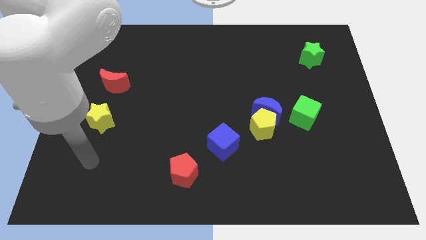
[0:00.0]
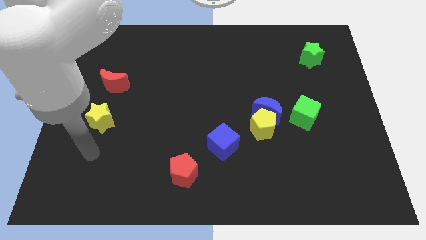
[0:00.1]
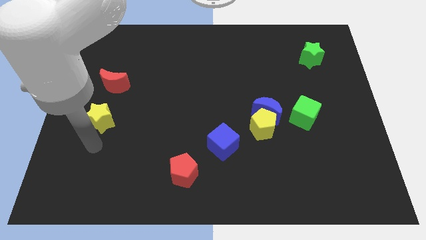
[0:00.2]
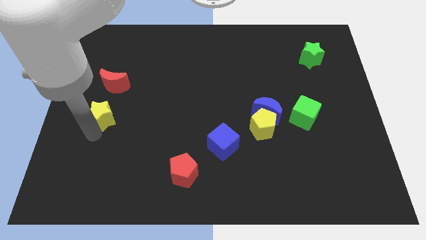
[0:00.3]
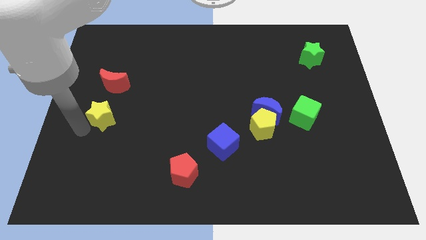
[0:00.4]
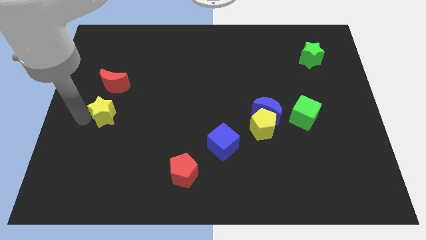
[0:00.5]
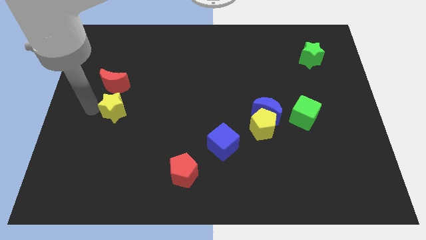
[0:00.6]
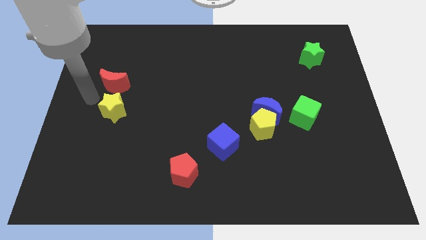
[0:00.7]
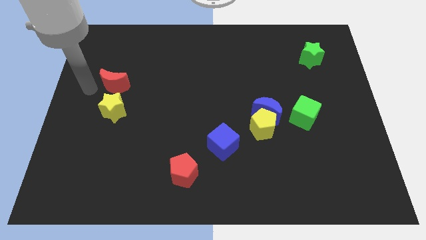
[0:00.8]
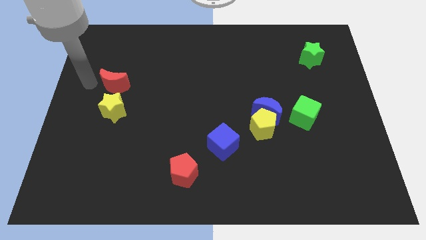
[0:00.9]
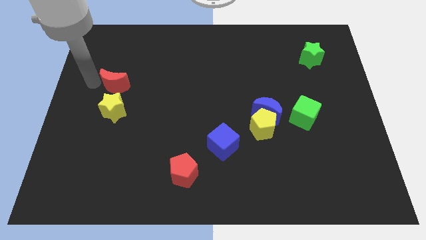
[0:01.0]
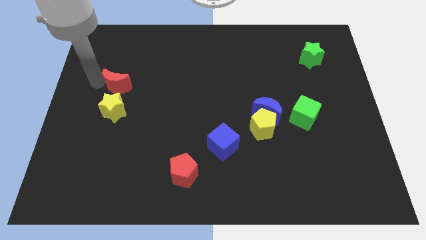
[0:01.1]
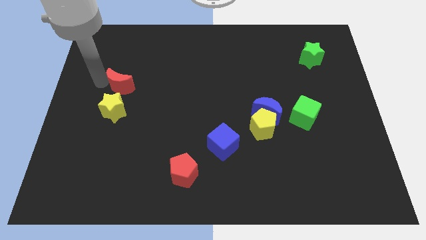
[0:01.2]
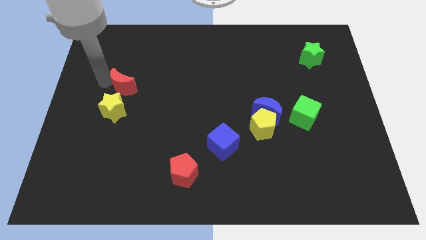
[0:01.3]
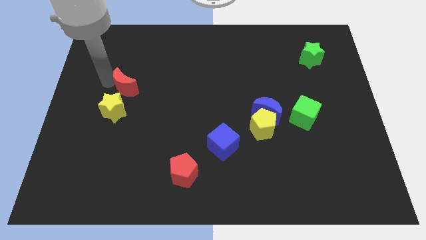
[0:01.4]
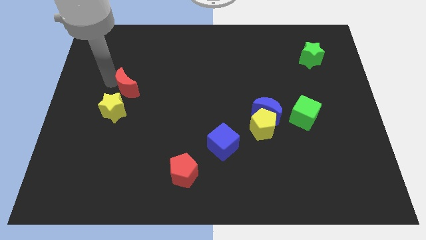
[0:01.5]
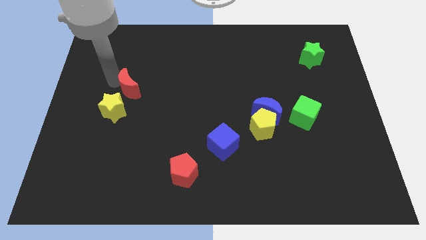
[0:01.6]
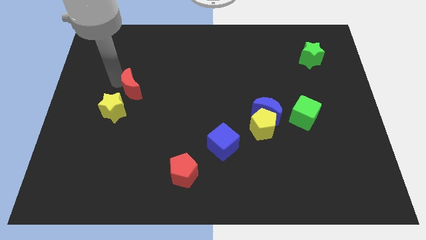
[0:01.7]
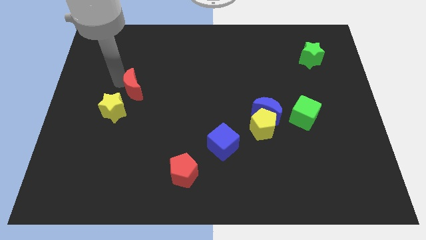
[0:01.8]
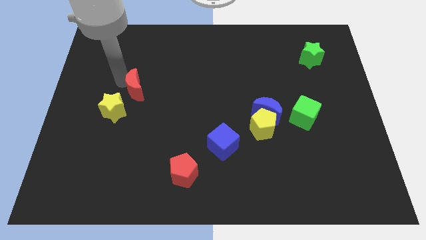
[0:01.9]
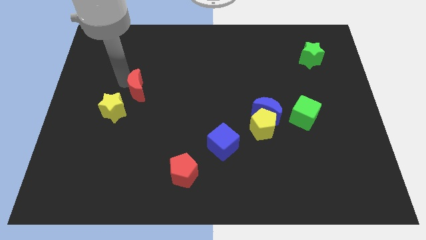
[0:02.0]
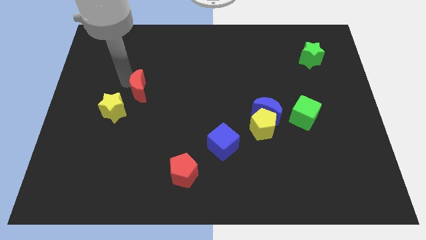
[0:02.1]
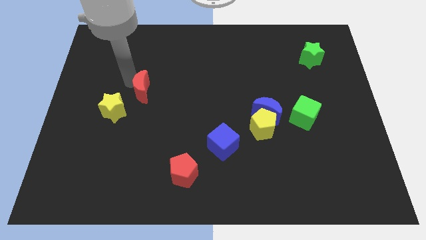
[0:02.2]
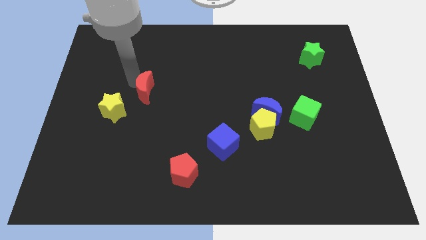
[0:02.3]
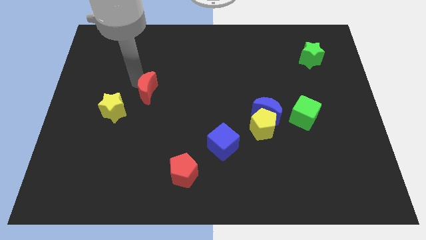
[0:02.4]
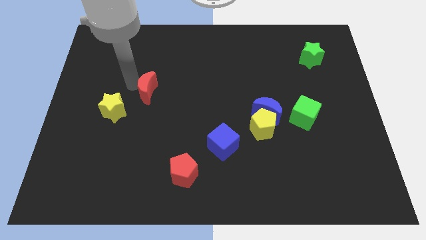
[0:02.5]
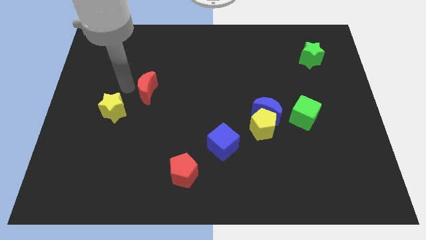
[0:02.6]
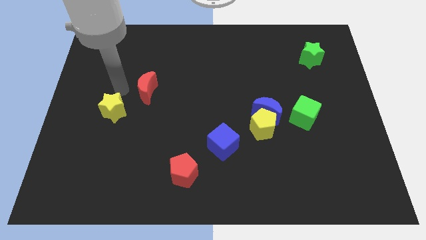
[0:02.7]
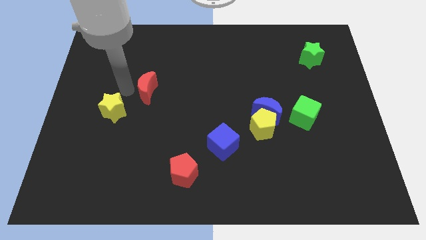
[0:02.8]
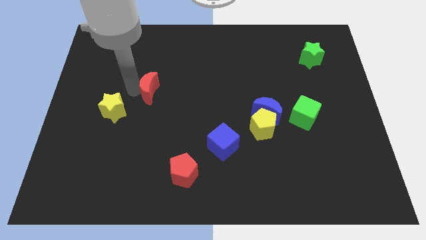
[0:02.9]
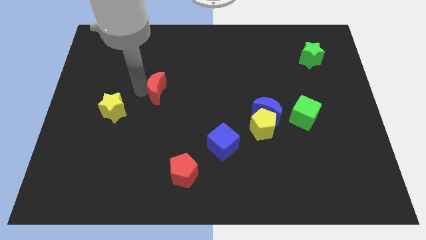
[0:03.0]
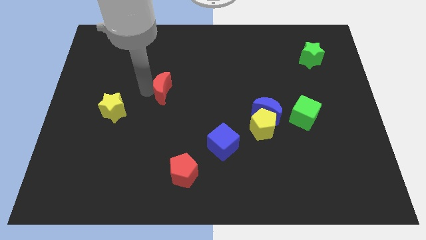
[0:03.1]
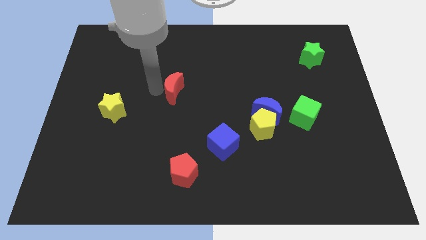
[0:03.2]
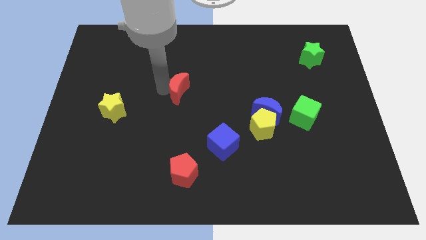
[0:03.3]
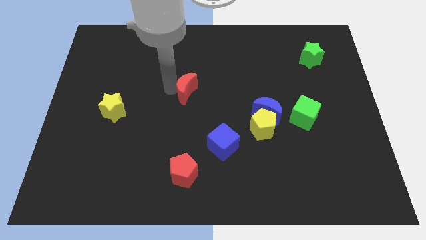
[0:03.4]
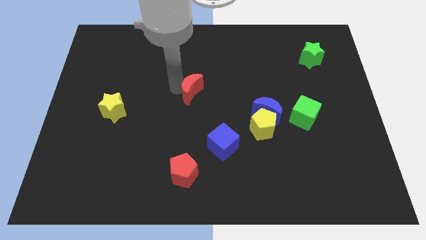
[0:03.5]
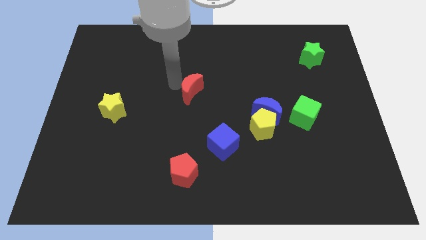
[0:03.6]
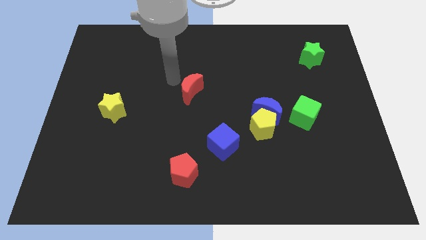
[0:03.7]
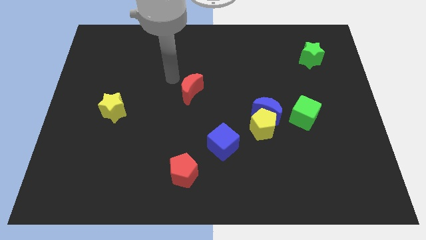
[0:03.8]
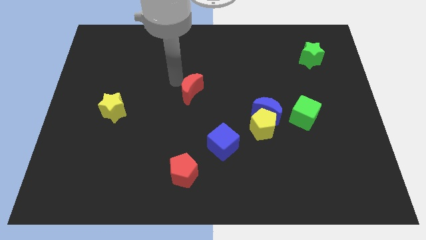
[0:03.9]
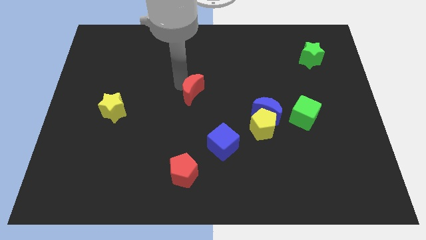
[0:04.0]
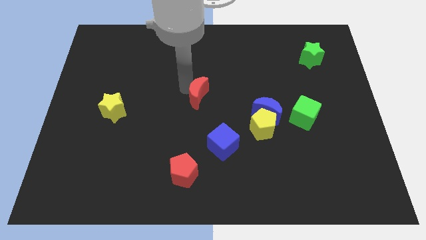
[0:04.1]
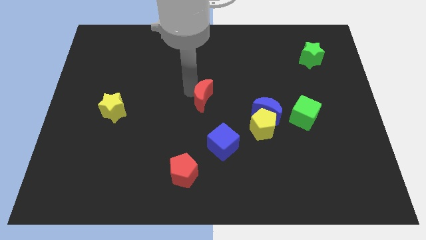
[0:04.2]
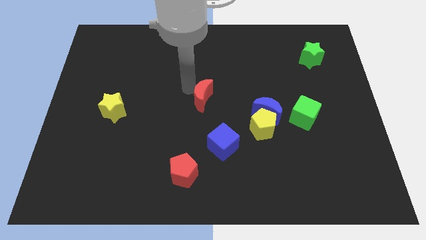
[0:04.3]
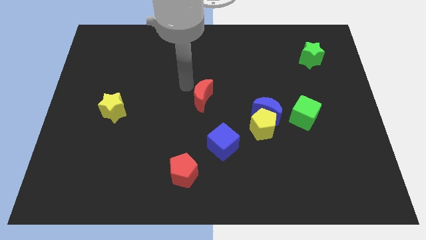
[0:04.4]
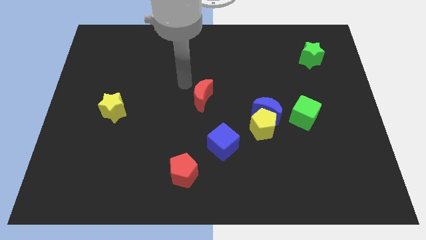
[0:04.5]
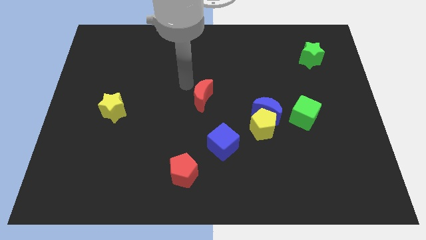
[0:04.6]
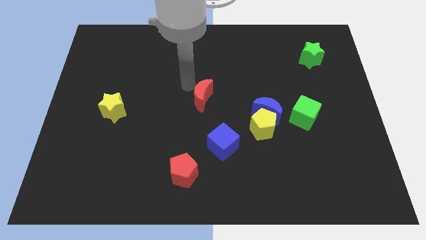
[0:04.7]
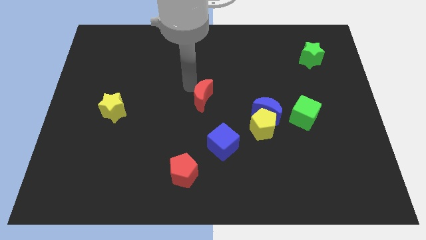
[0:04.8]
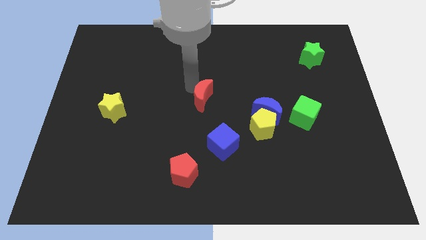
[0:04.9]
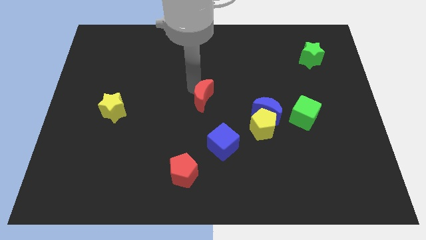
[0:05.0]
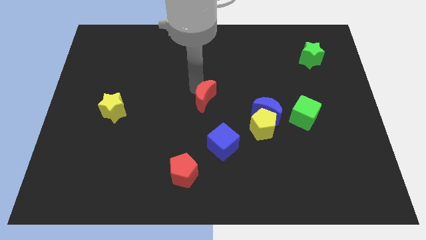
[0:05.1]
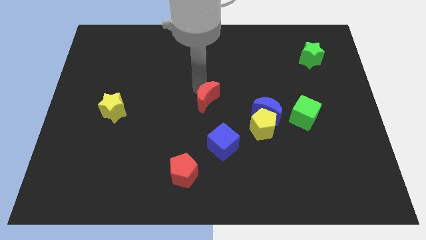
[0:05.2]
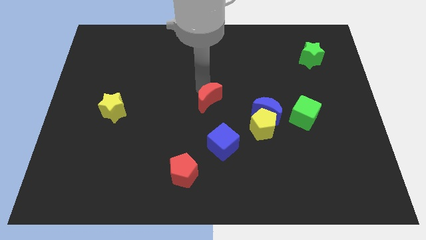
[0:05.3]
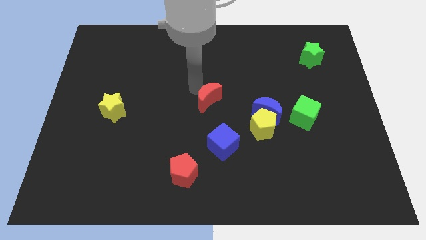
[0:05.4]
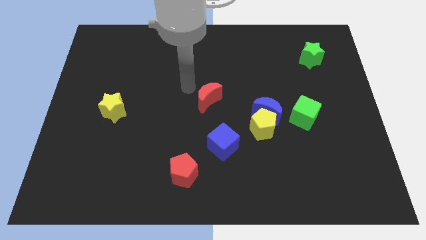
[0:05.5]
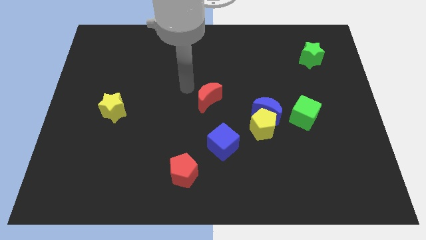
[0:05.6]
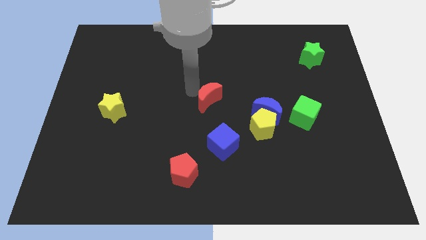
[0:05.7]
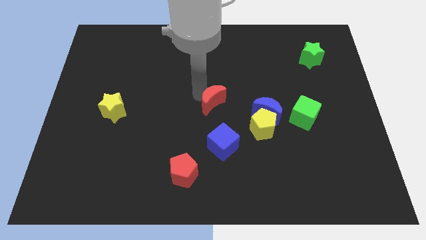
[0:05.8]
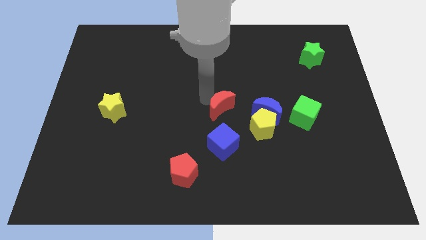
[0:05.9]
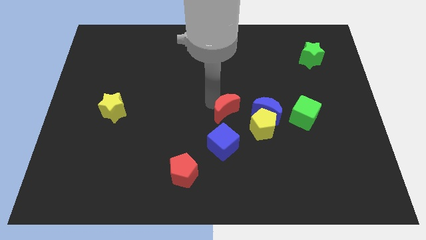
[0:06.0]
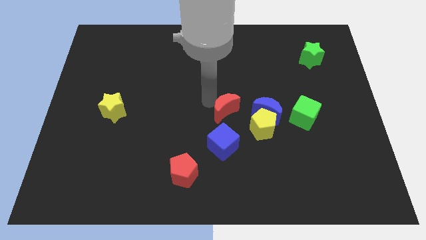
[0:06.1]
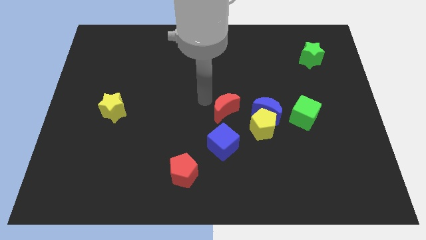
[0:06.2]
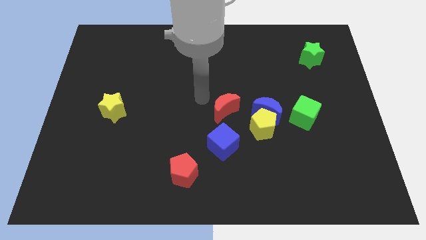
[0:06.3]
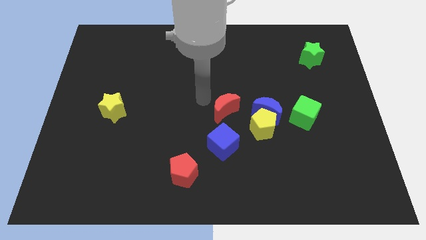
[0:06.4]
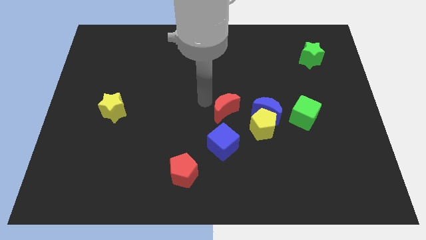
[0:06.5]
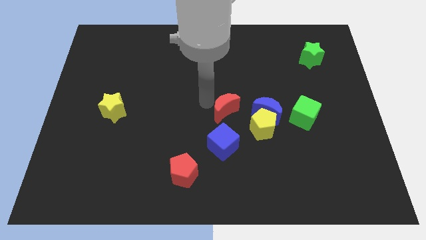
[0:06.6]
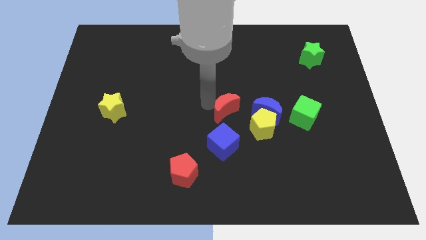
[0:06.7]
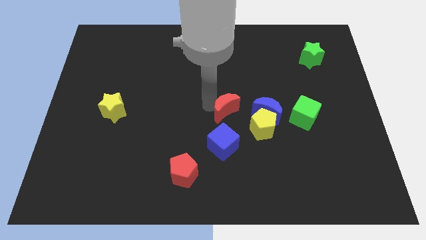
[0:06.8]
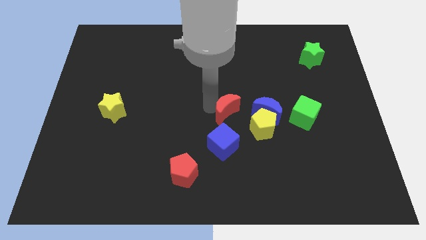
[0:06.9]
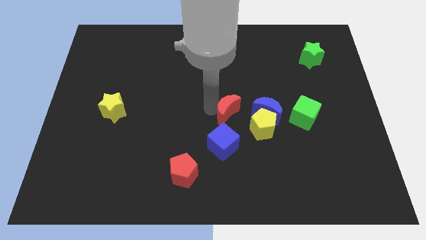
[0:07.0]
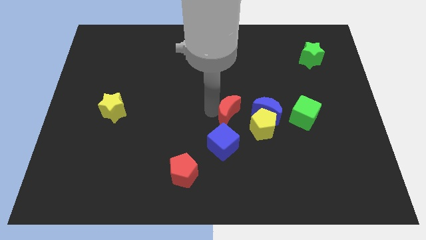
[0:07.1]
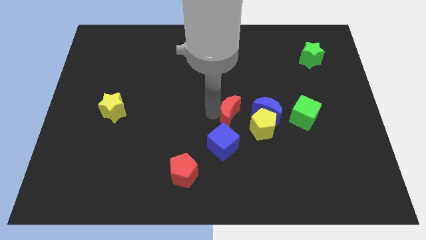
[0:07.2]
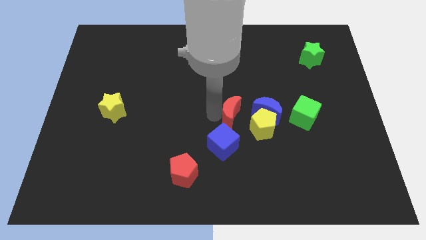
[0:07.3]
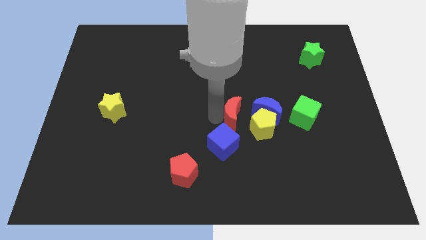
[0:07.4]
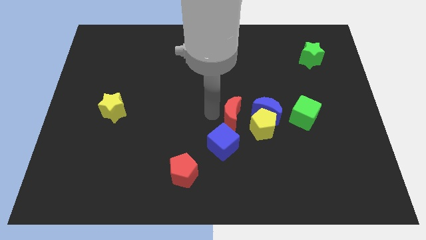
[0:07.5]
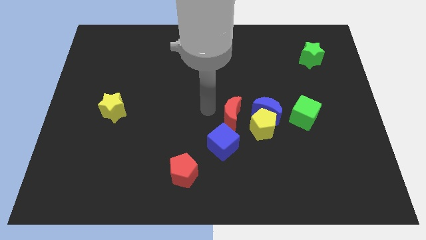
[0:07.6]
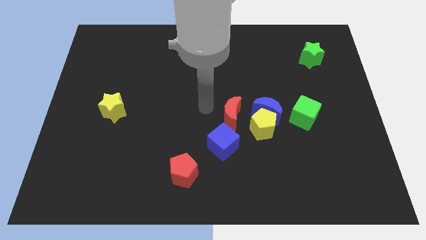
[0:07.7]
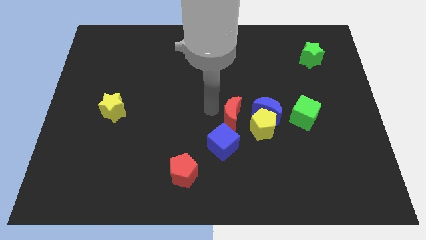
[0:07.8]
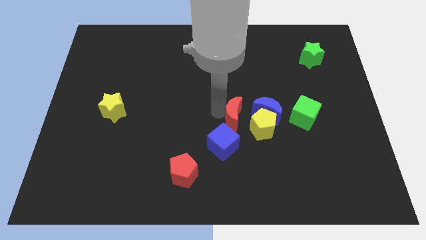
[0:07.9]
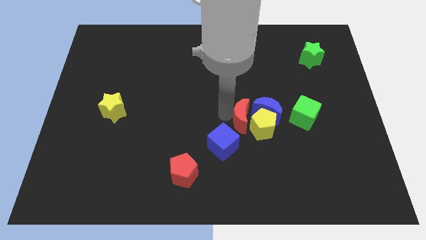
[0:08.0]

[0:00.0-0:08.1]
push the red moon to the yellow pentagon
